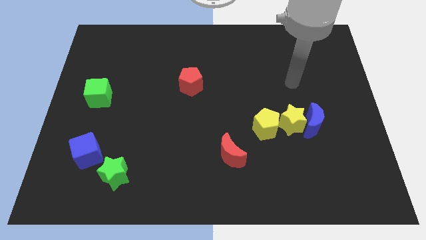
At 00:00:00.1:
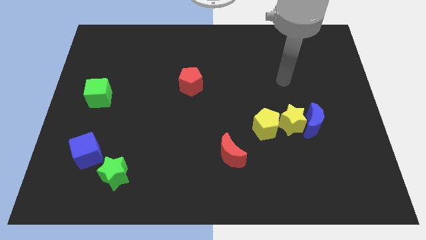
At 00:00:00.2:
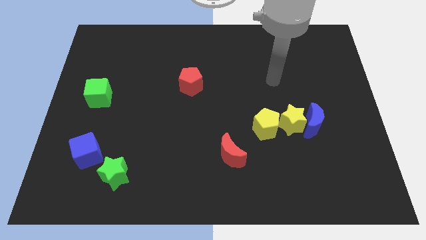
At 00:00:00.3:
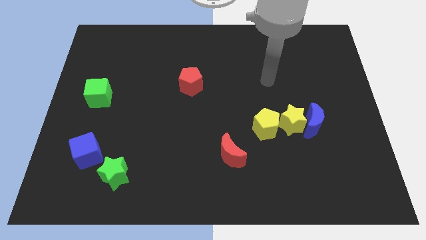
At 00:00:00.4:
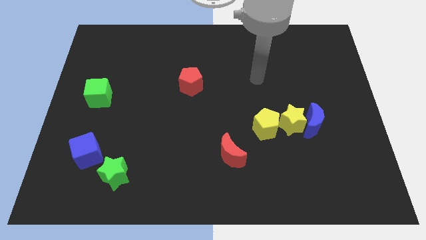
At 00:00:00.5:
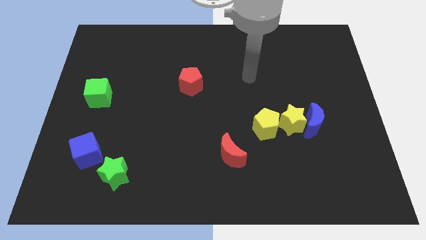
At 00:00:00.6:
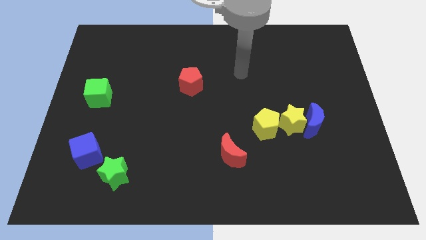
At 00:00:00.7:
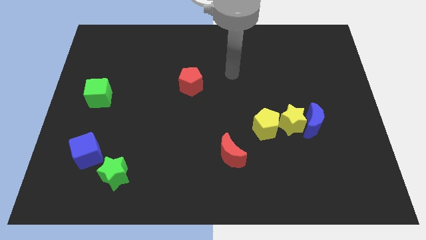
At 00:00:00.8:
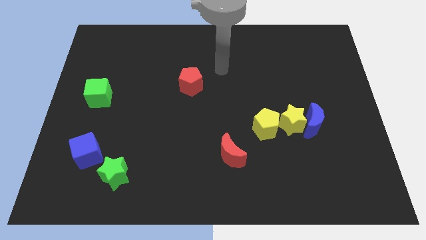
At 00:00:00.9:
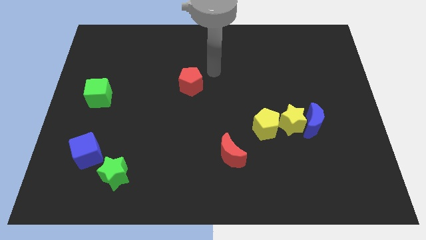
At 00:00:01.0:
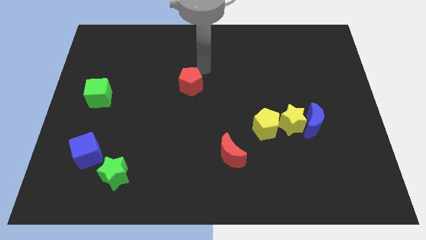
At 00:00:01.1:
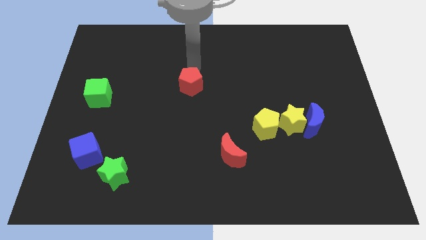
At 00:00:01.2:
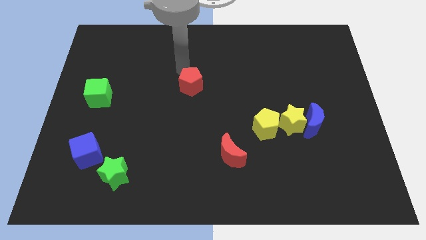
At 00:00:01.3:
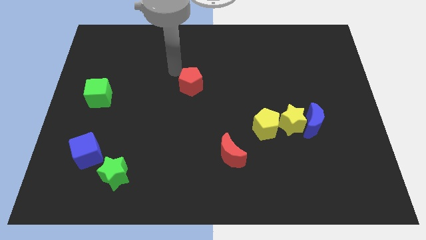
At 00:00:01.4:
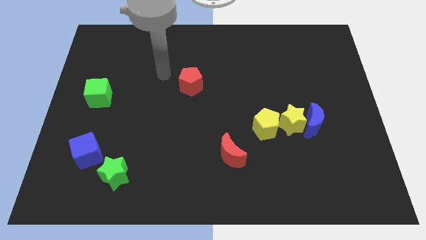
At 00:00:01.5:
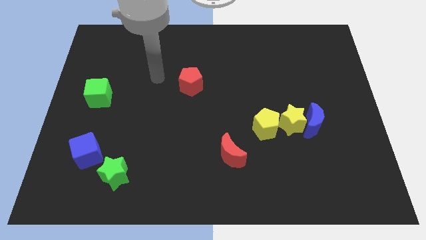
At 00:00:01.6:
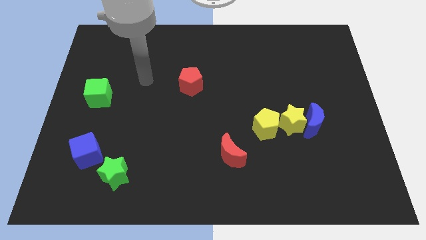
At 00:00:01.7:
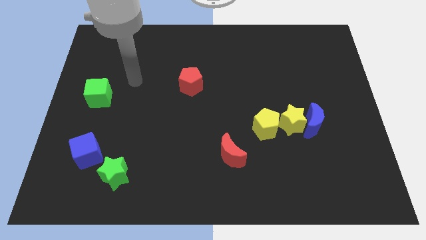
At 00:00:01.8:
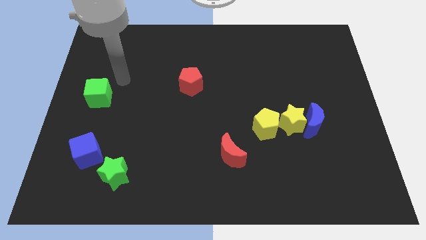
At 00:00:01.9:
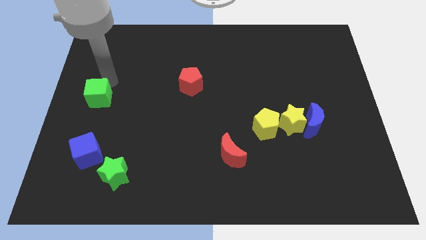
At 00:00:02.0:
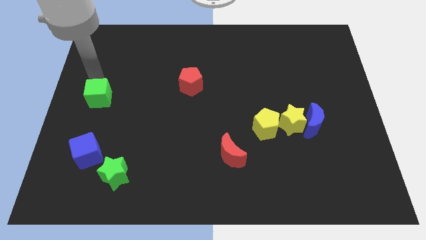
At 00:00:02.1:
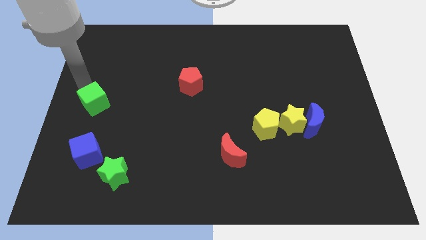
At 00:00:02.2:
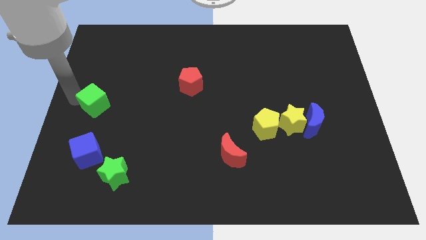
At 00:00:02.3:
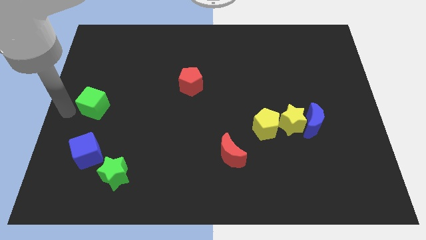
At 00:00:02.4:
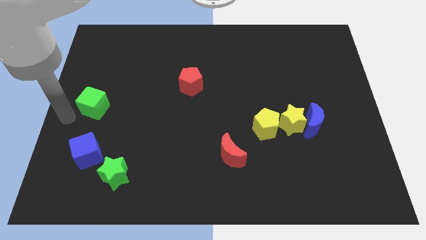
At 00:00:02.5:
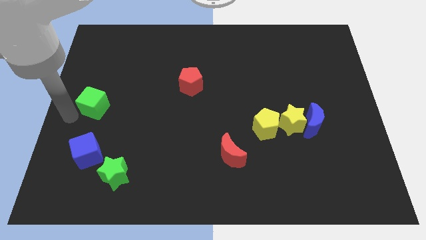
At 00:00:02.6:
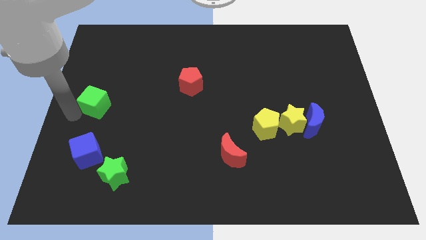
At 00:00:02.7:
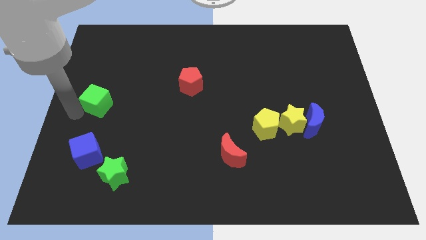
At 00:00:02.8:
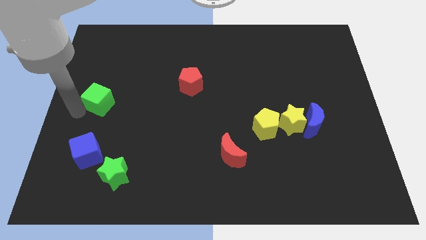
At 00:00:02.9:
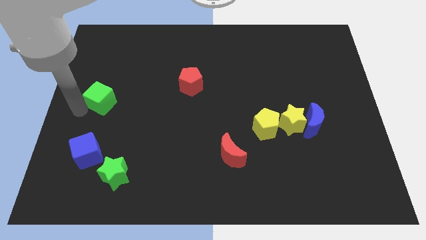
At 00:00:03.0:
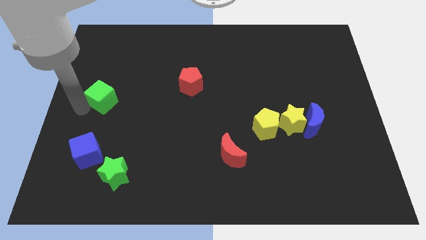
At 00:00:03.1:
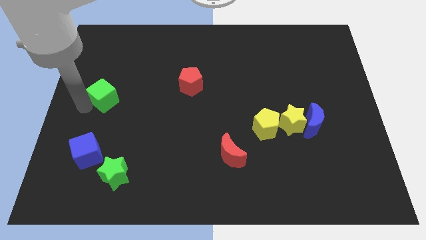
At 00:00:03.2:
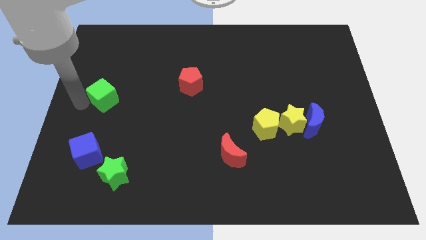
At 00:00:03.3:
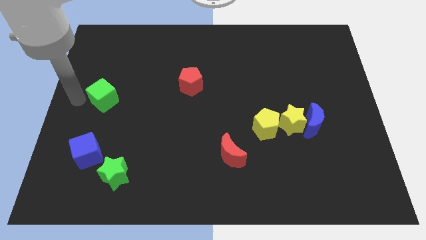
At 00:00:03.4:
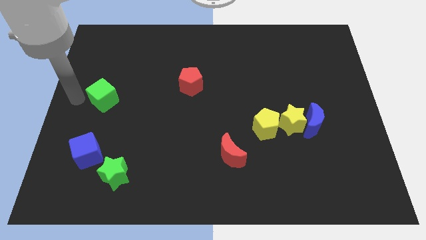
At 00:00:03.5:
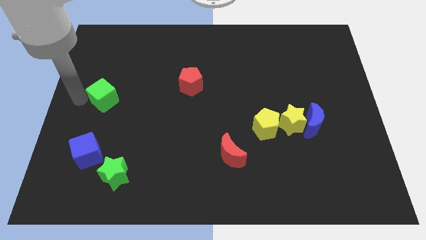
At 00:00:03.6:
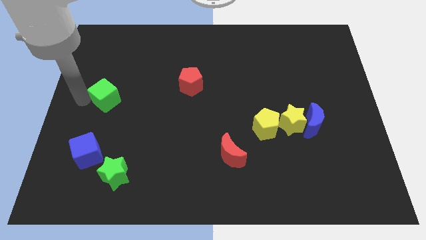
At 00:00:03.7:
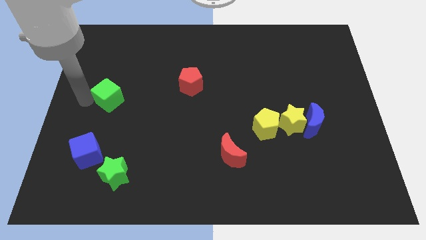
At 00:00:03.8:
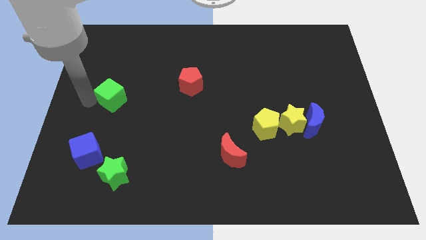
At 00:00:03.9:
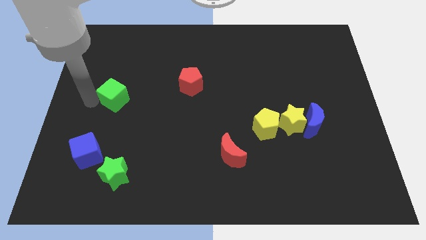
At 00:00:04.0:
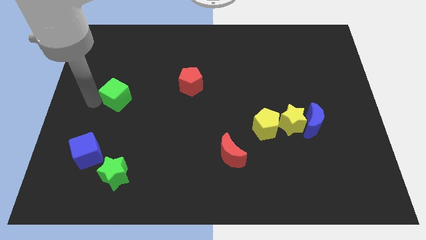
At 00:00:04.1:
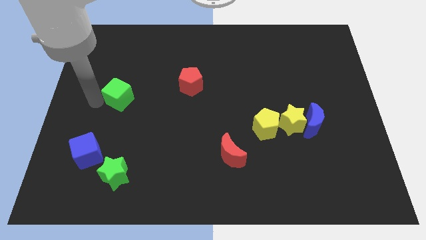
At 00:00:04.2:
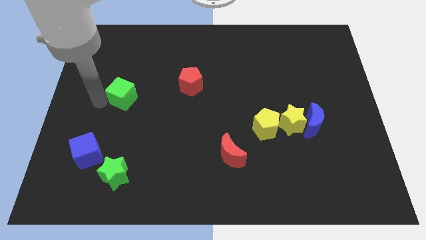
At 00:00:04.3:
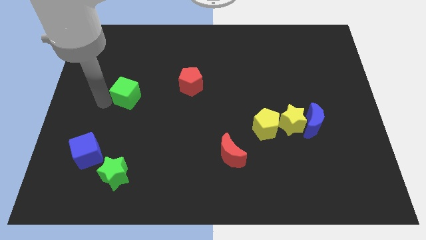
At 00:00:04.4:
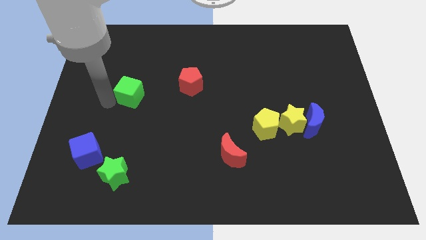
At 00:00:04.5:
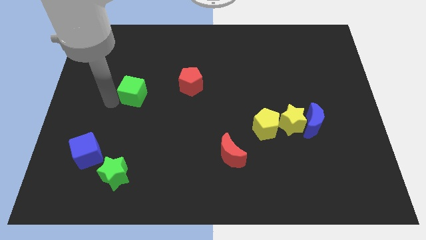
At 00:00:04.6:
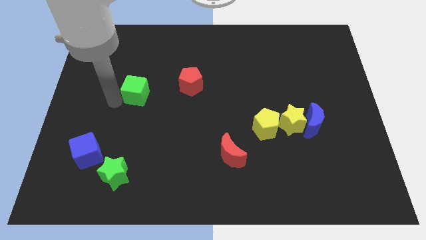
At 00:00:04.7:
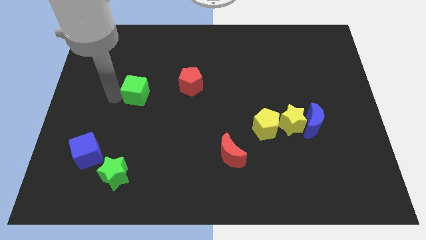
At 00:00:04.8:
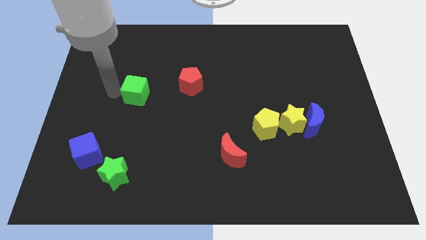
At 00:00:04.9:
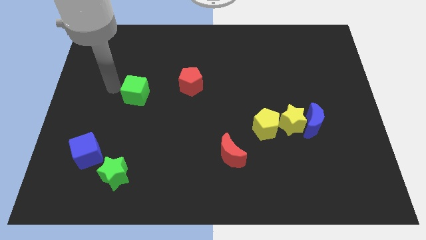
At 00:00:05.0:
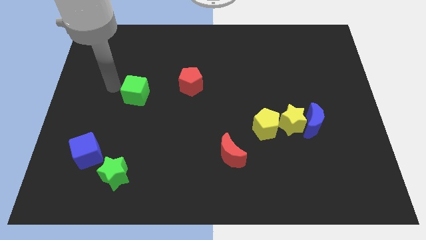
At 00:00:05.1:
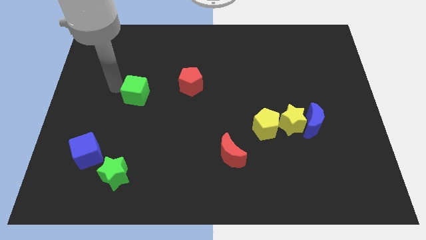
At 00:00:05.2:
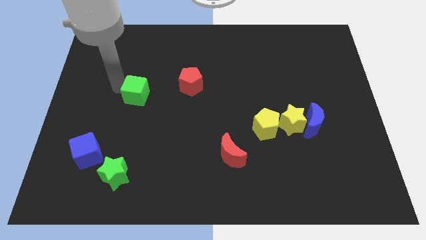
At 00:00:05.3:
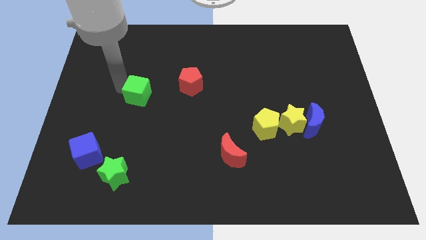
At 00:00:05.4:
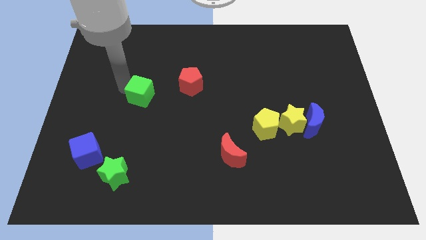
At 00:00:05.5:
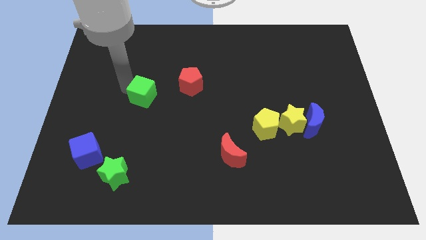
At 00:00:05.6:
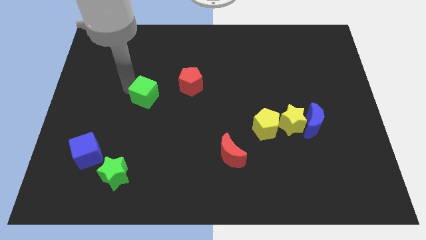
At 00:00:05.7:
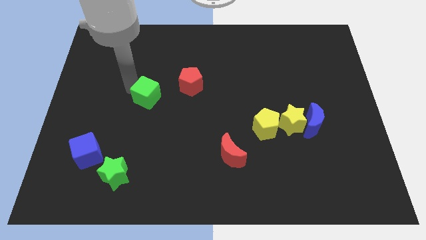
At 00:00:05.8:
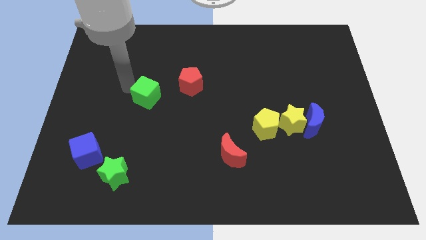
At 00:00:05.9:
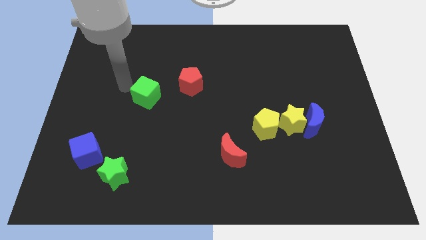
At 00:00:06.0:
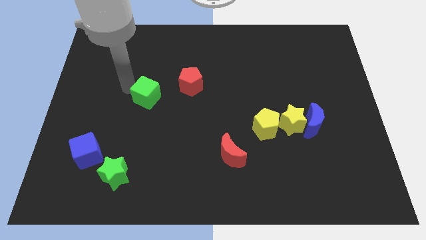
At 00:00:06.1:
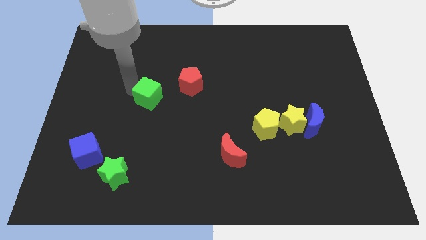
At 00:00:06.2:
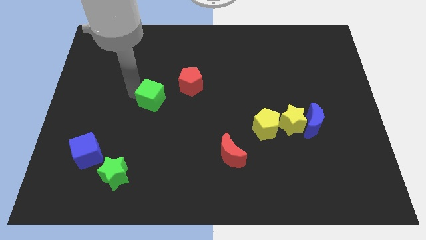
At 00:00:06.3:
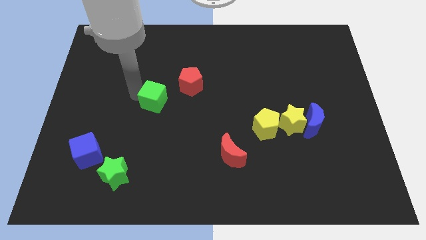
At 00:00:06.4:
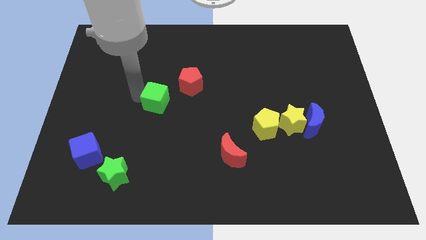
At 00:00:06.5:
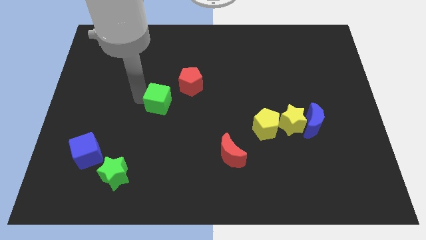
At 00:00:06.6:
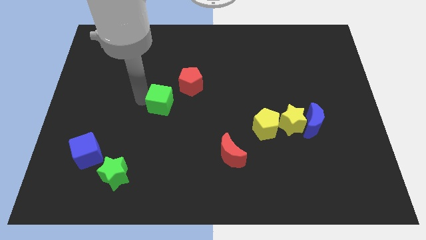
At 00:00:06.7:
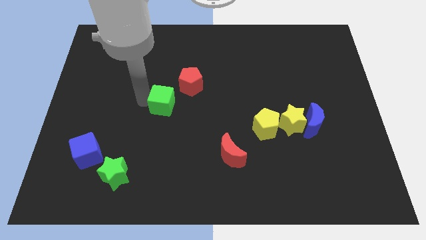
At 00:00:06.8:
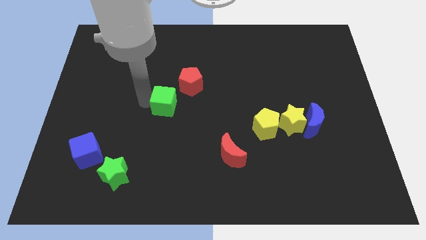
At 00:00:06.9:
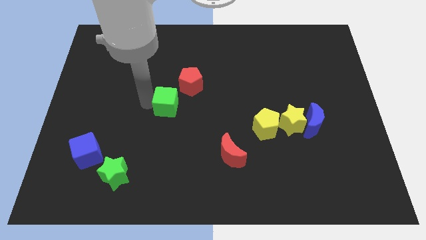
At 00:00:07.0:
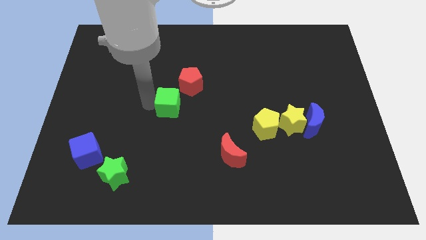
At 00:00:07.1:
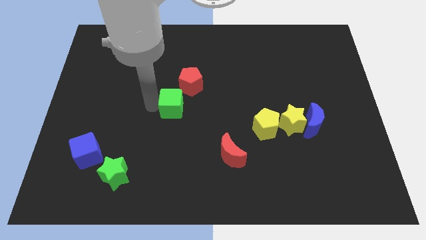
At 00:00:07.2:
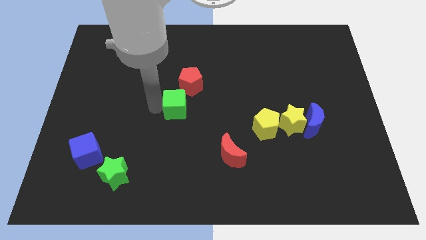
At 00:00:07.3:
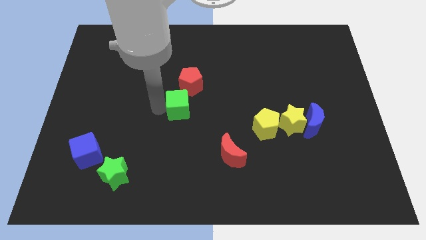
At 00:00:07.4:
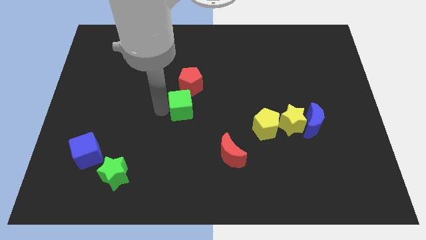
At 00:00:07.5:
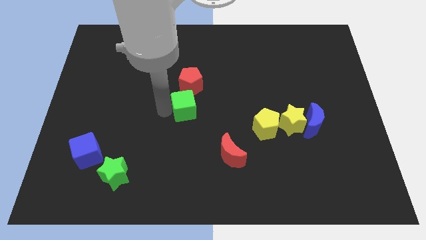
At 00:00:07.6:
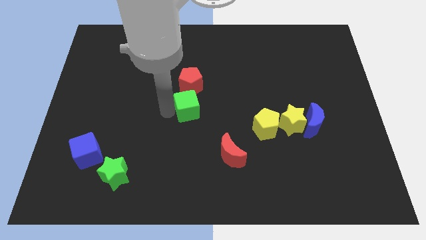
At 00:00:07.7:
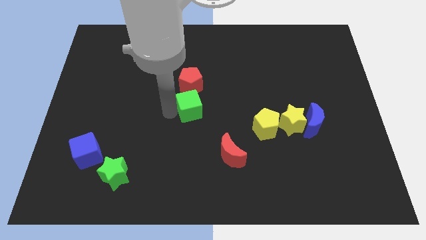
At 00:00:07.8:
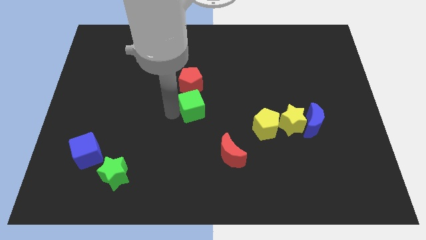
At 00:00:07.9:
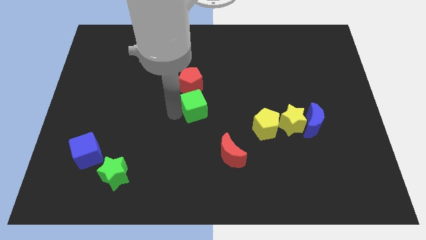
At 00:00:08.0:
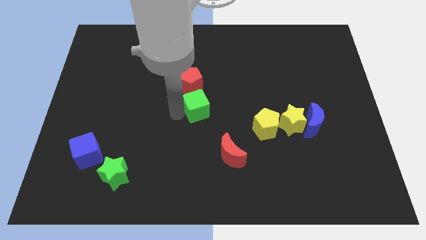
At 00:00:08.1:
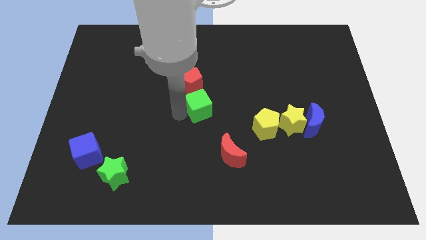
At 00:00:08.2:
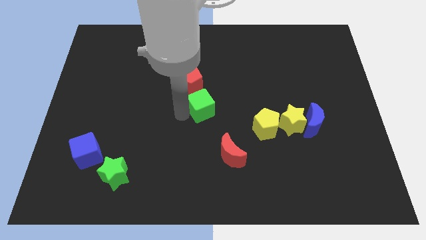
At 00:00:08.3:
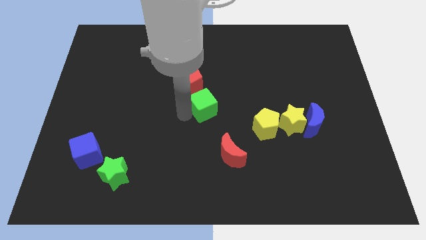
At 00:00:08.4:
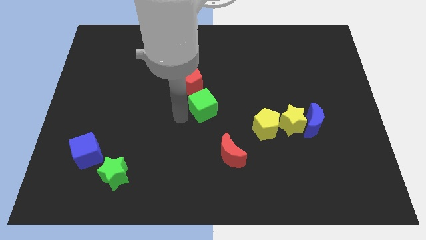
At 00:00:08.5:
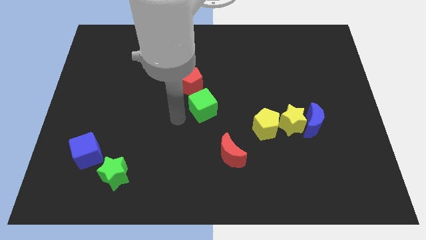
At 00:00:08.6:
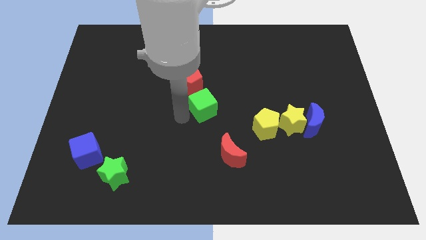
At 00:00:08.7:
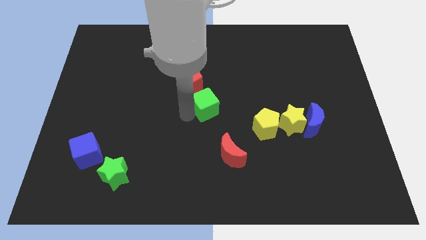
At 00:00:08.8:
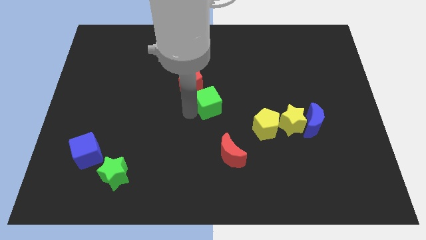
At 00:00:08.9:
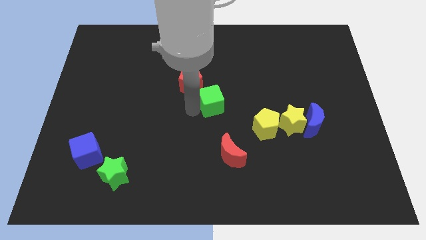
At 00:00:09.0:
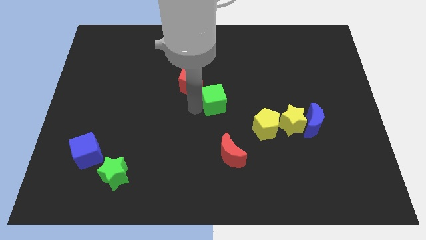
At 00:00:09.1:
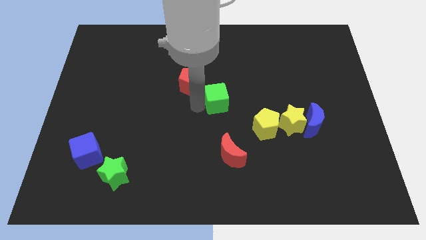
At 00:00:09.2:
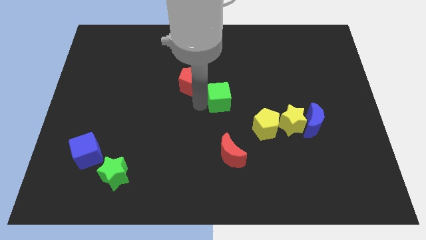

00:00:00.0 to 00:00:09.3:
put the green cube to the top left of the yellow pentagon
